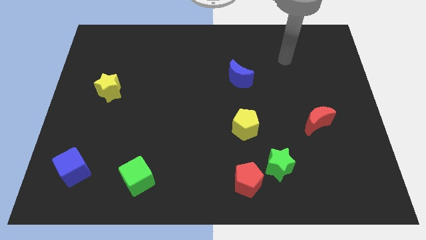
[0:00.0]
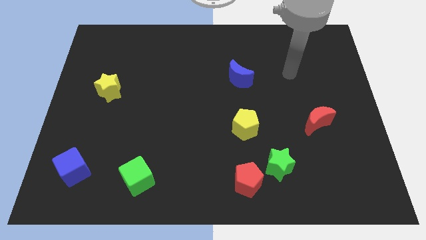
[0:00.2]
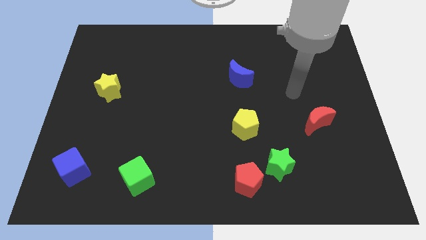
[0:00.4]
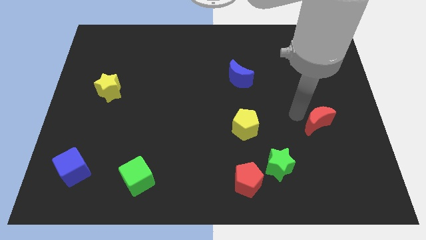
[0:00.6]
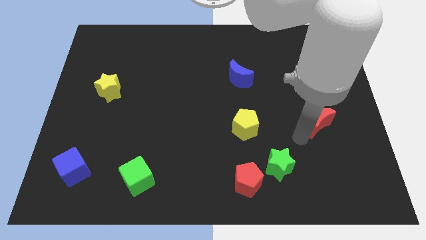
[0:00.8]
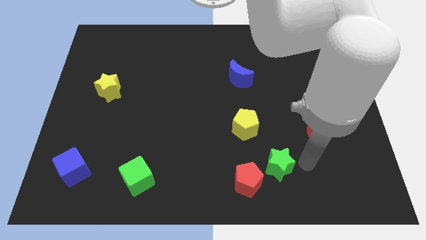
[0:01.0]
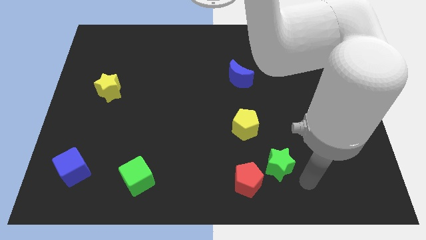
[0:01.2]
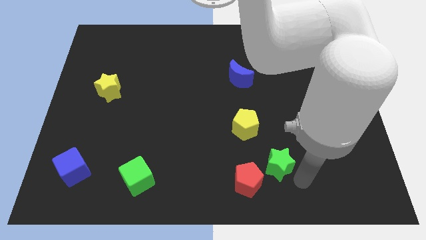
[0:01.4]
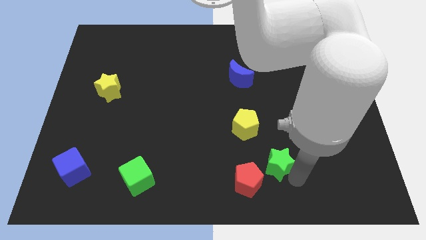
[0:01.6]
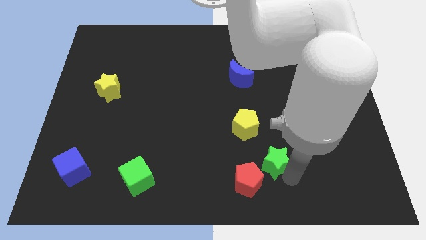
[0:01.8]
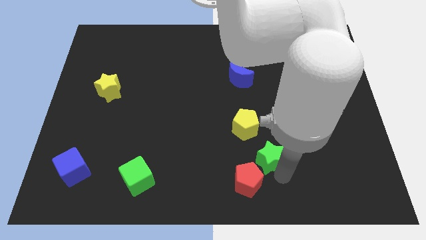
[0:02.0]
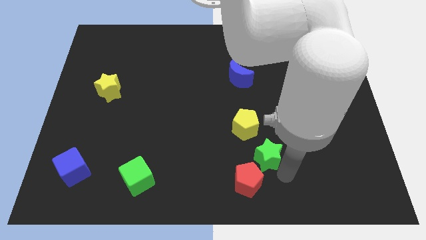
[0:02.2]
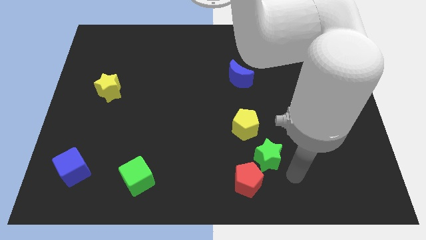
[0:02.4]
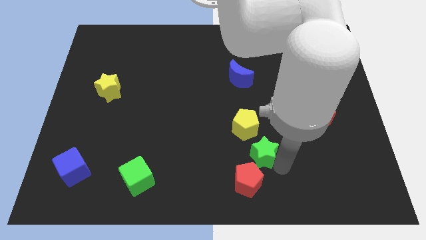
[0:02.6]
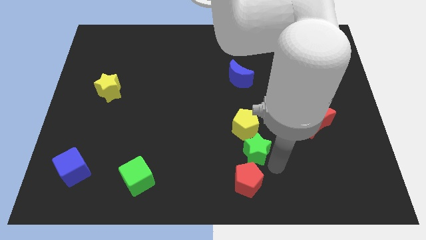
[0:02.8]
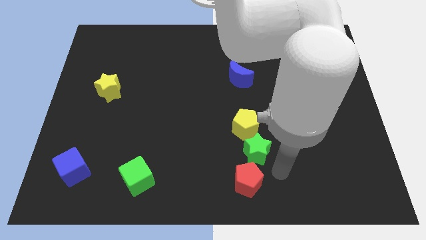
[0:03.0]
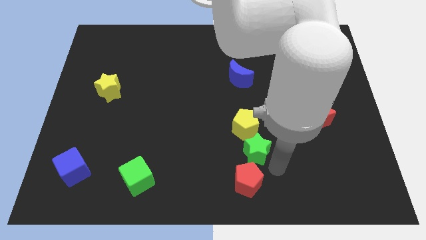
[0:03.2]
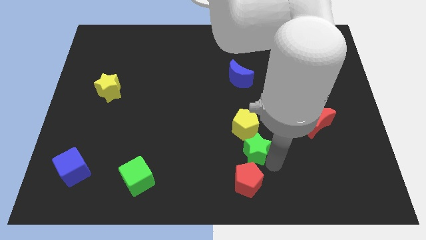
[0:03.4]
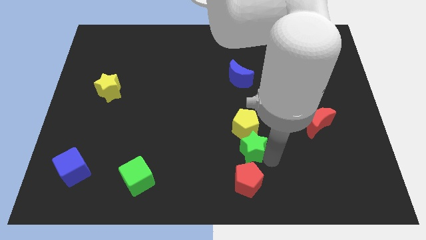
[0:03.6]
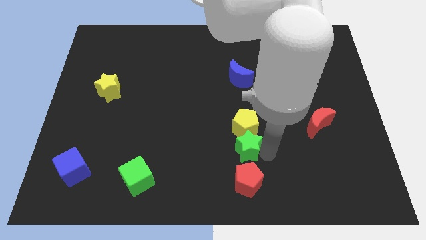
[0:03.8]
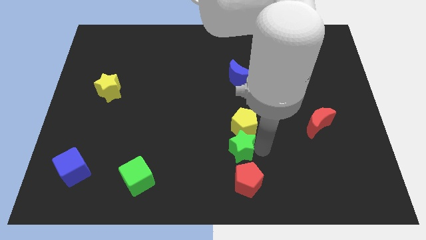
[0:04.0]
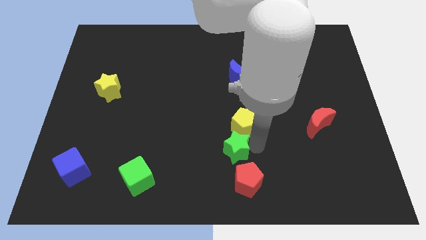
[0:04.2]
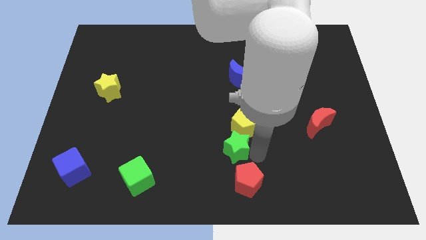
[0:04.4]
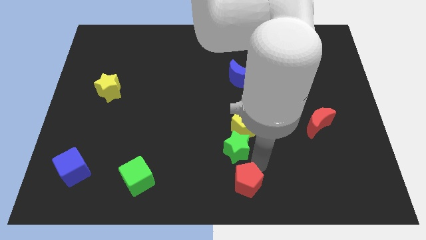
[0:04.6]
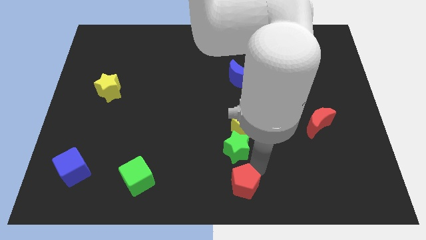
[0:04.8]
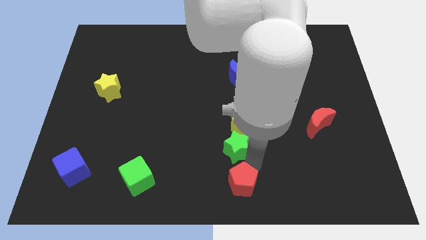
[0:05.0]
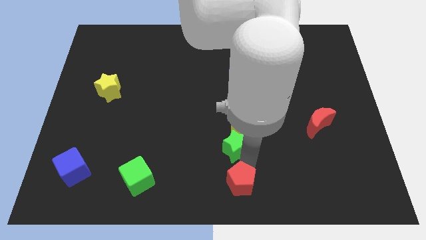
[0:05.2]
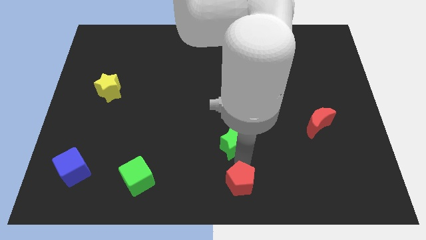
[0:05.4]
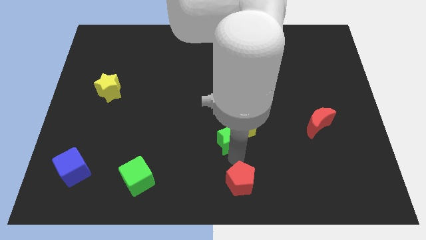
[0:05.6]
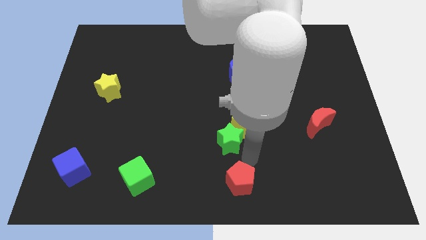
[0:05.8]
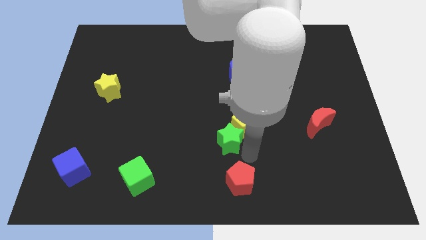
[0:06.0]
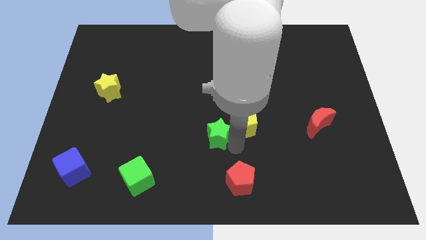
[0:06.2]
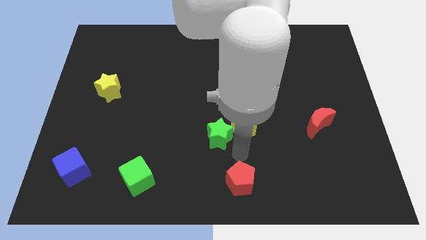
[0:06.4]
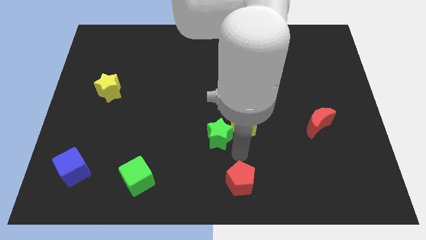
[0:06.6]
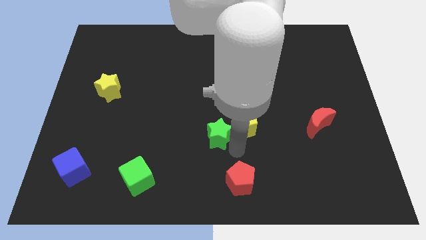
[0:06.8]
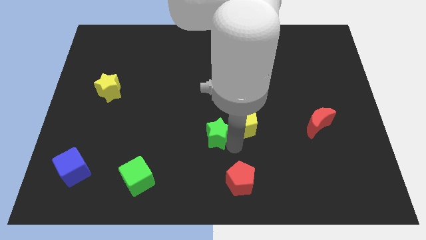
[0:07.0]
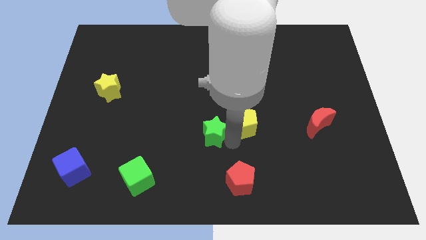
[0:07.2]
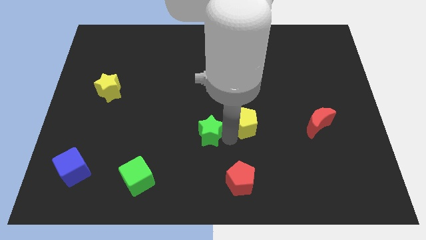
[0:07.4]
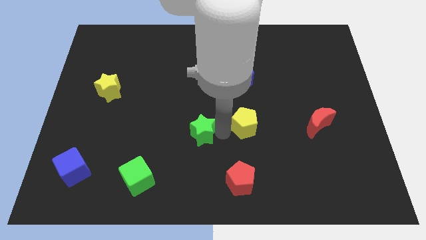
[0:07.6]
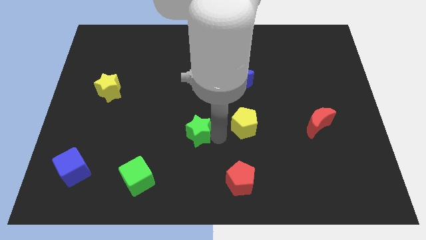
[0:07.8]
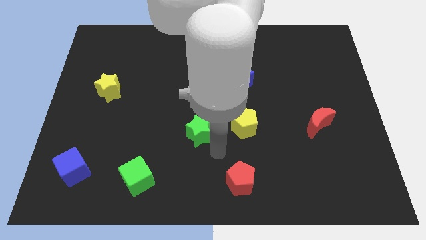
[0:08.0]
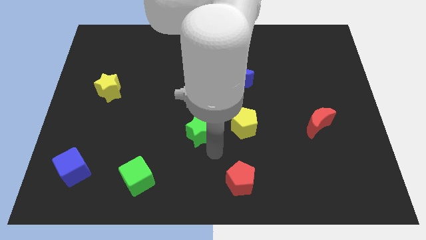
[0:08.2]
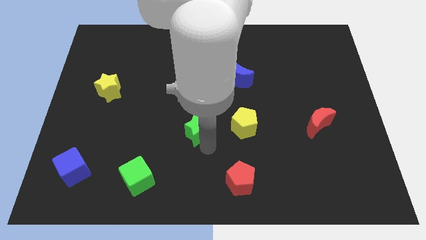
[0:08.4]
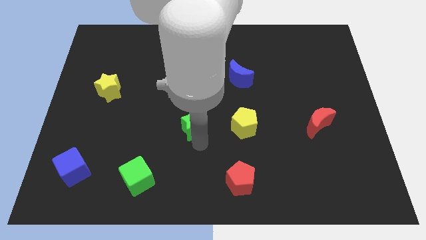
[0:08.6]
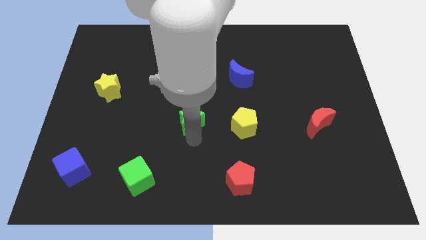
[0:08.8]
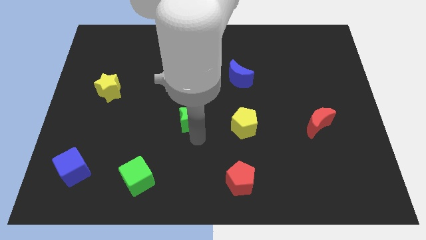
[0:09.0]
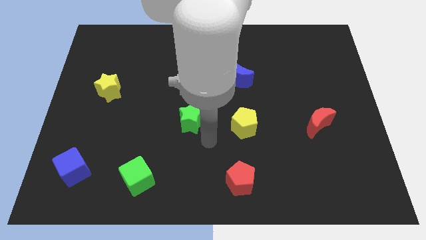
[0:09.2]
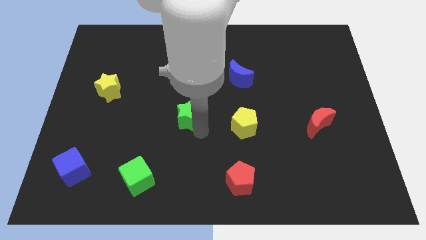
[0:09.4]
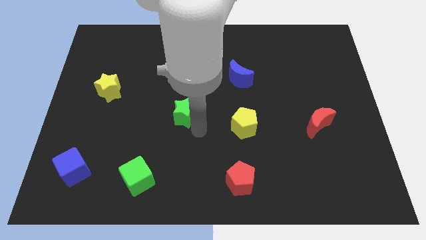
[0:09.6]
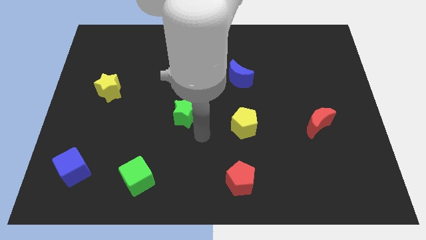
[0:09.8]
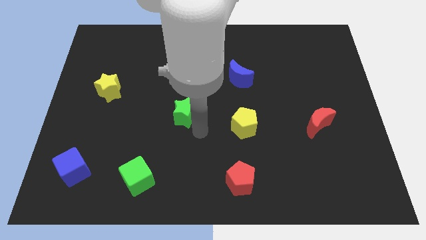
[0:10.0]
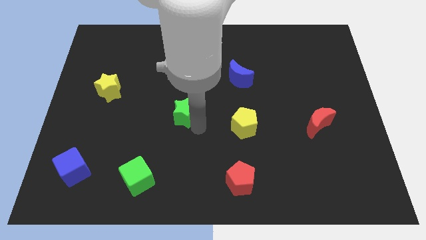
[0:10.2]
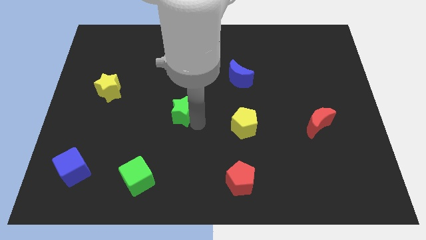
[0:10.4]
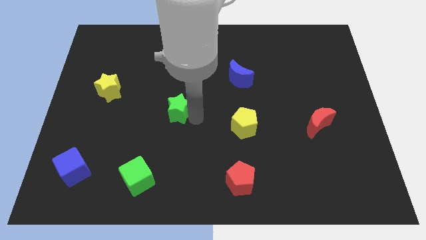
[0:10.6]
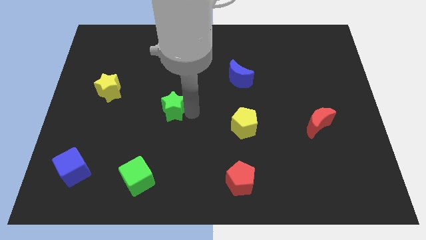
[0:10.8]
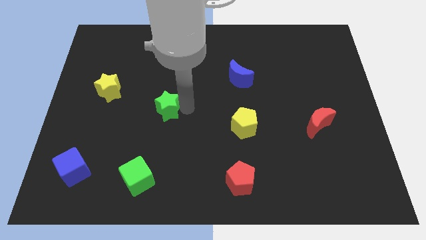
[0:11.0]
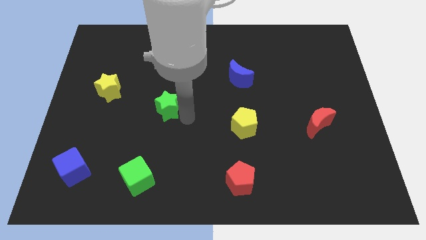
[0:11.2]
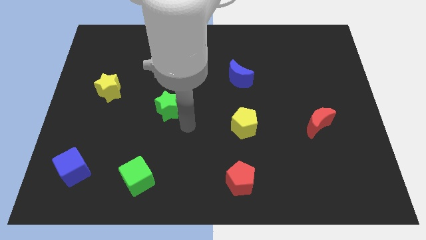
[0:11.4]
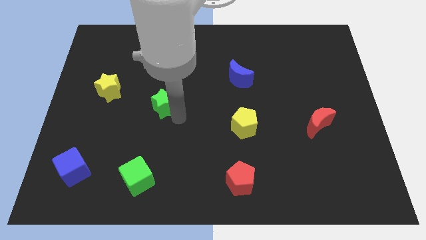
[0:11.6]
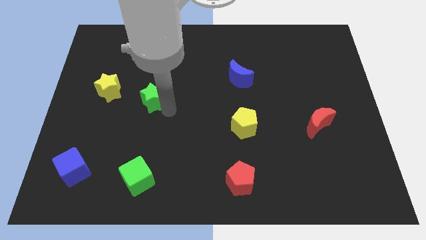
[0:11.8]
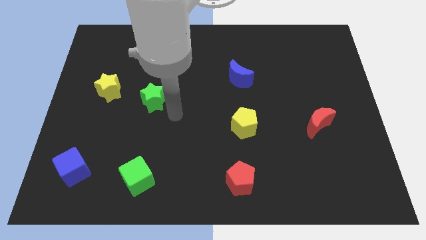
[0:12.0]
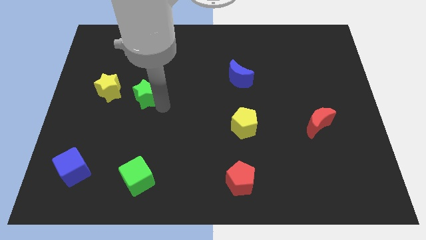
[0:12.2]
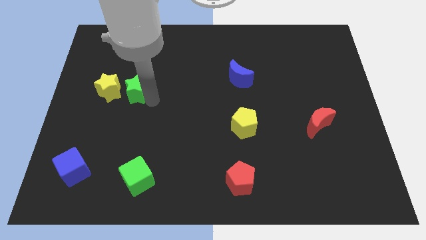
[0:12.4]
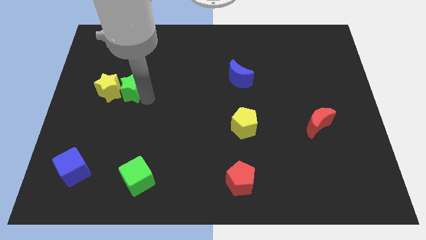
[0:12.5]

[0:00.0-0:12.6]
put the green star next to the yellow star
